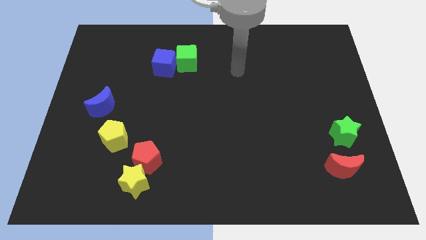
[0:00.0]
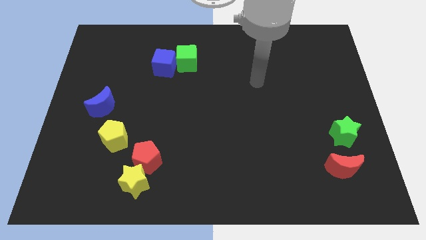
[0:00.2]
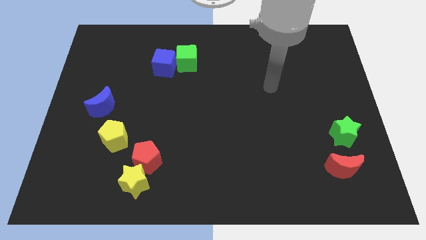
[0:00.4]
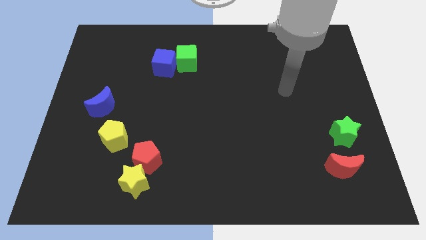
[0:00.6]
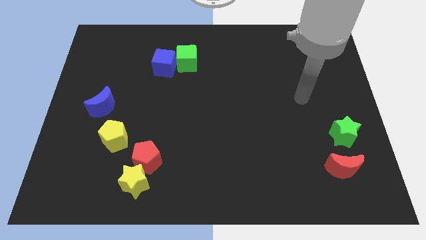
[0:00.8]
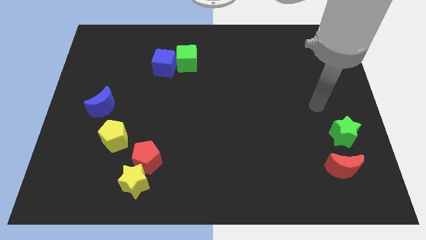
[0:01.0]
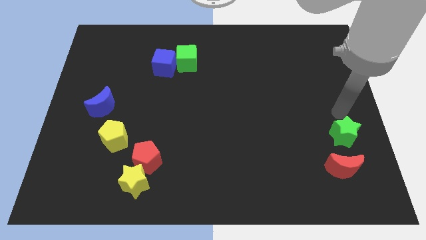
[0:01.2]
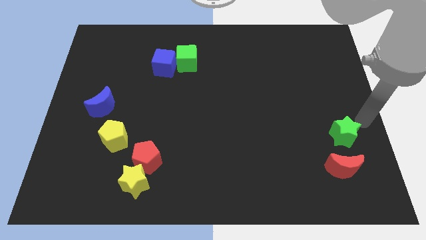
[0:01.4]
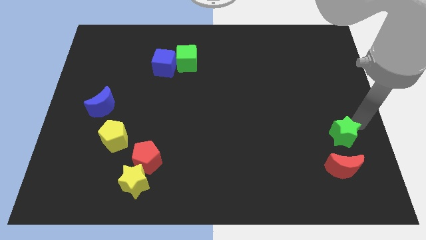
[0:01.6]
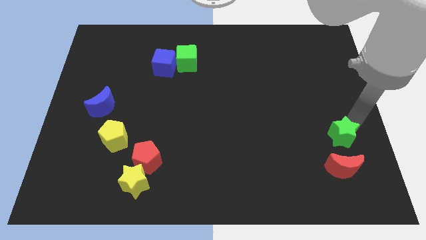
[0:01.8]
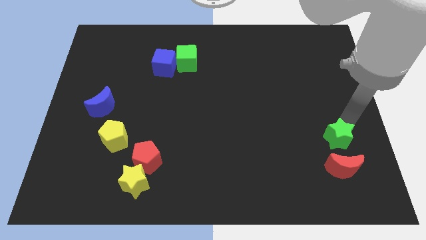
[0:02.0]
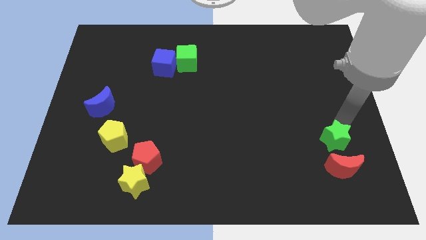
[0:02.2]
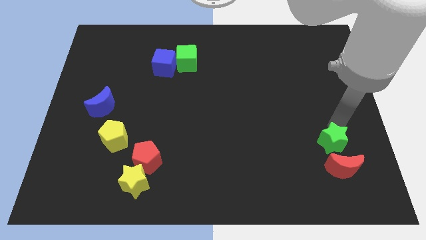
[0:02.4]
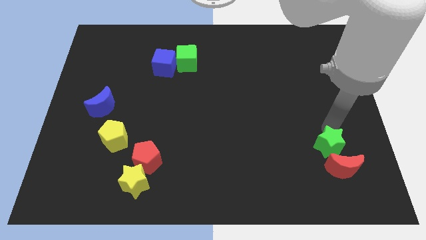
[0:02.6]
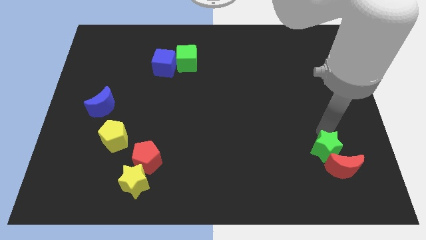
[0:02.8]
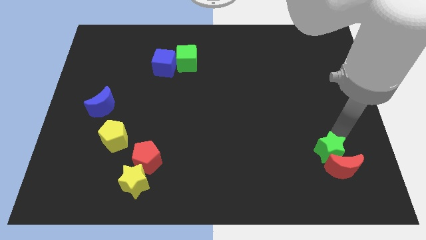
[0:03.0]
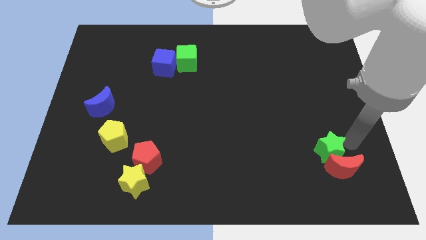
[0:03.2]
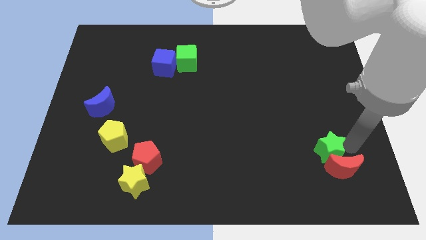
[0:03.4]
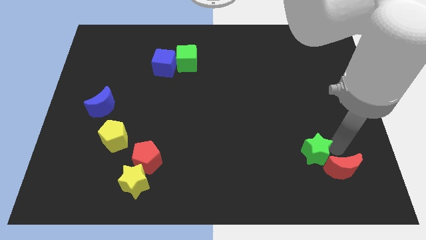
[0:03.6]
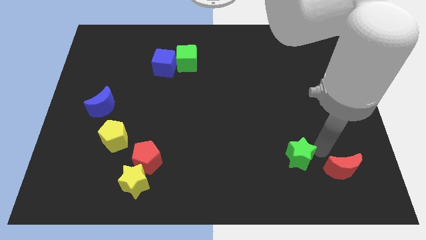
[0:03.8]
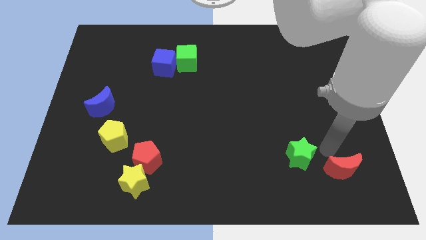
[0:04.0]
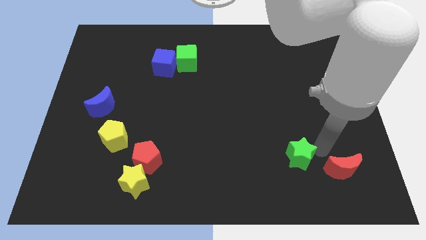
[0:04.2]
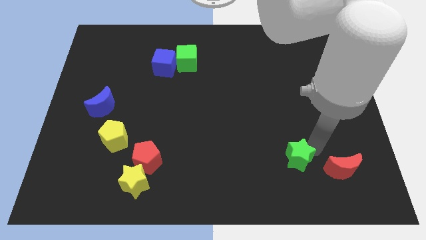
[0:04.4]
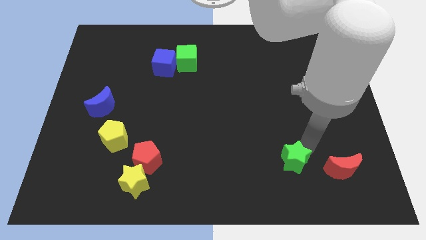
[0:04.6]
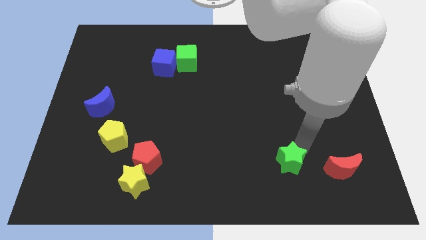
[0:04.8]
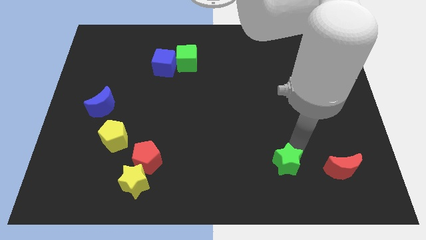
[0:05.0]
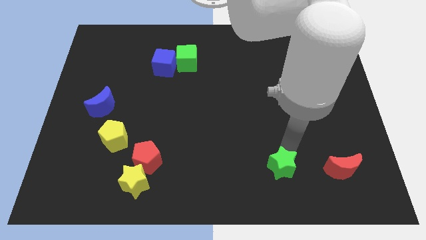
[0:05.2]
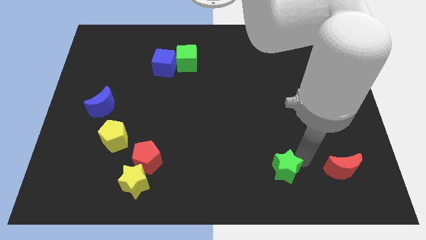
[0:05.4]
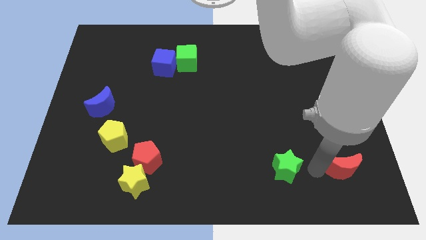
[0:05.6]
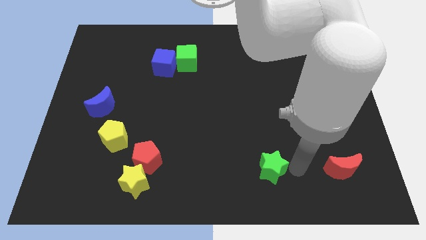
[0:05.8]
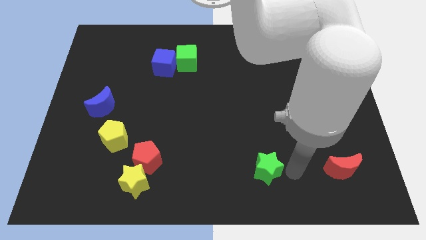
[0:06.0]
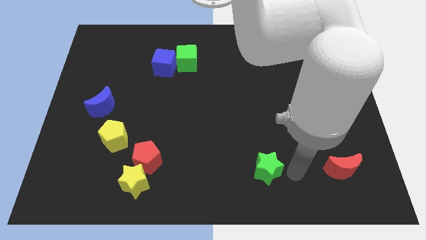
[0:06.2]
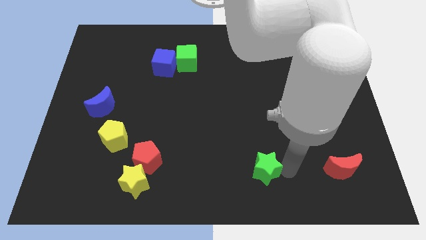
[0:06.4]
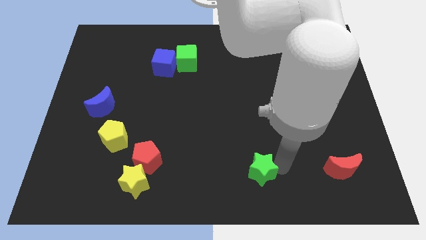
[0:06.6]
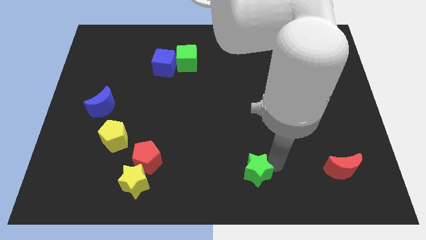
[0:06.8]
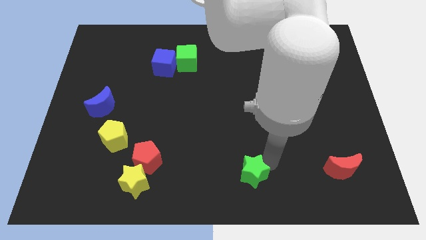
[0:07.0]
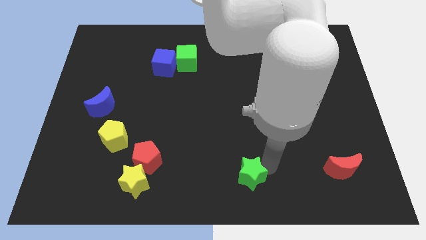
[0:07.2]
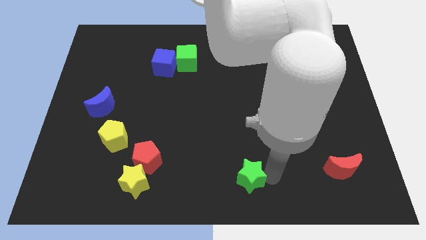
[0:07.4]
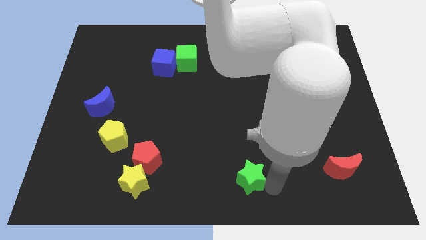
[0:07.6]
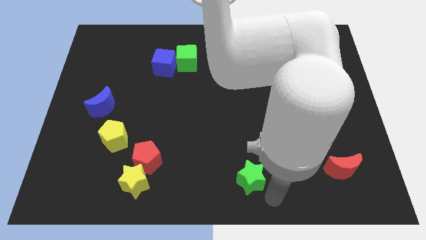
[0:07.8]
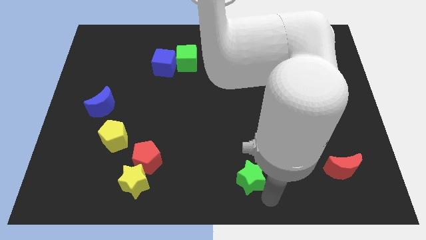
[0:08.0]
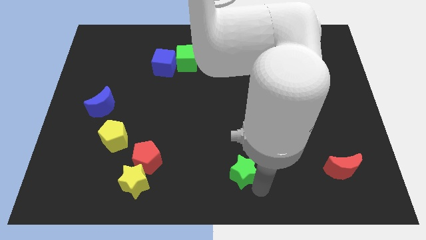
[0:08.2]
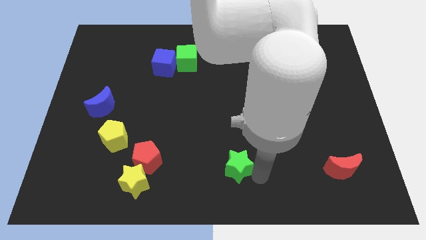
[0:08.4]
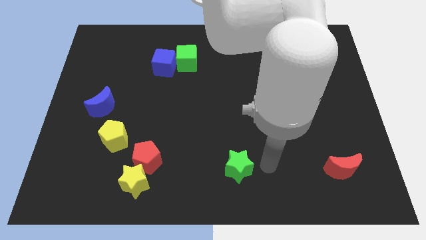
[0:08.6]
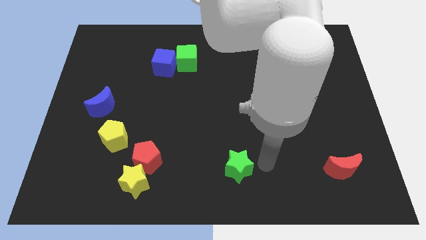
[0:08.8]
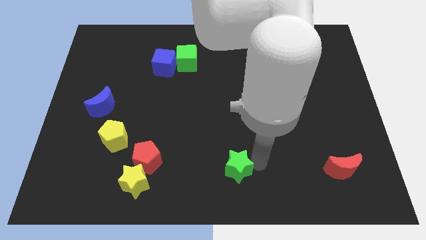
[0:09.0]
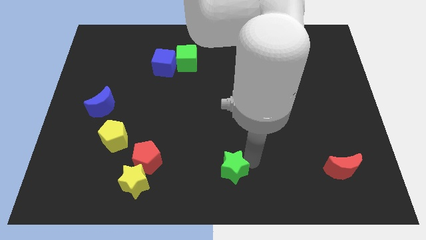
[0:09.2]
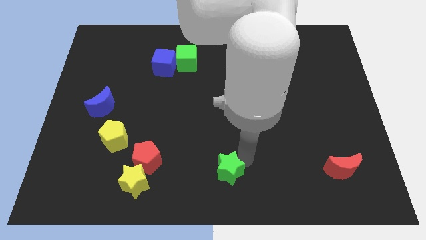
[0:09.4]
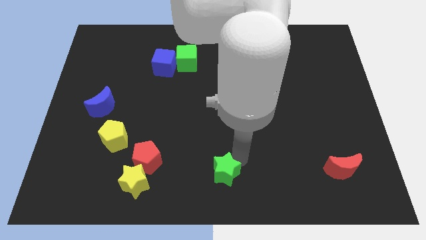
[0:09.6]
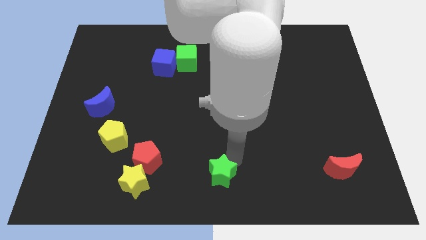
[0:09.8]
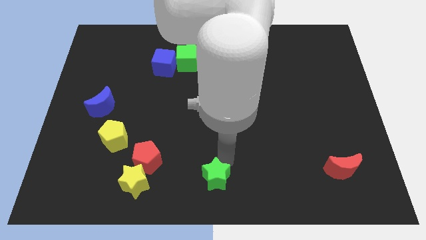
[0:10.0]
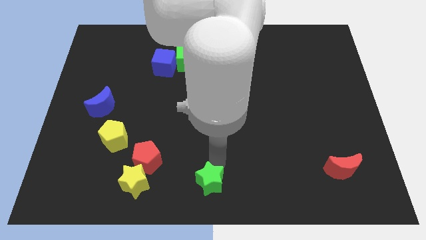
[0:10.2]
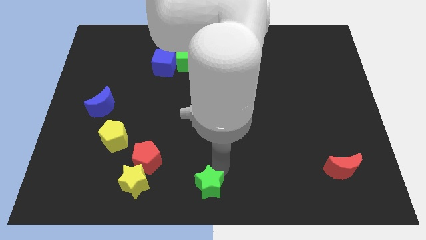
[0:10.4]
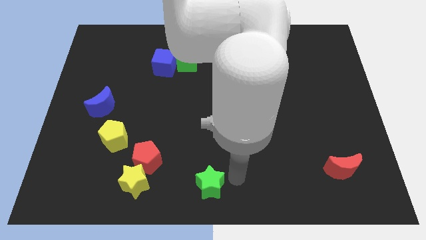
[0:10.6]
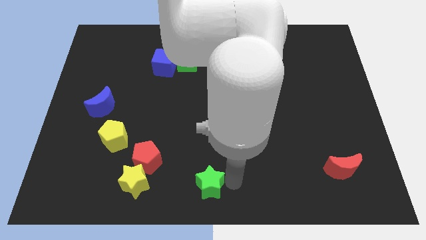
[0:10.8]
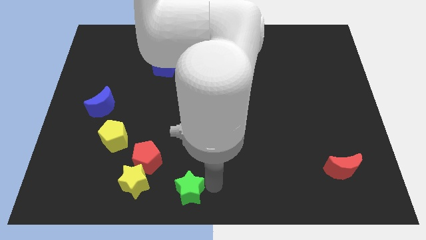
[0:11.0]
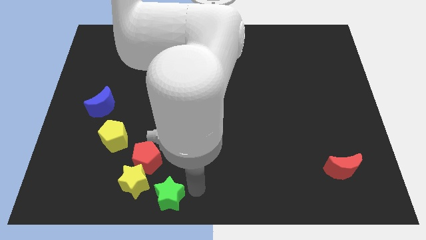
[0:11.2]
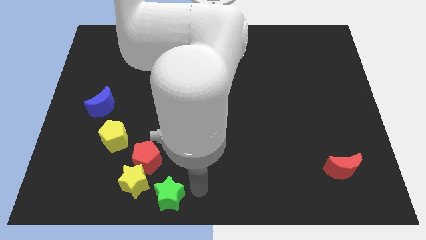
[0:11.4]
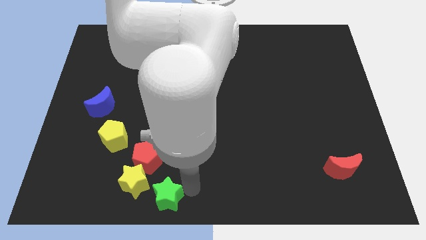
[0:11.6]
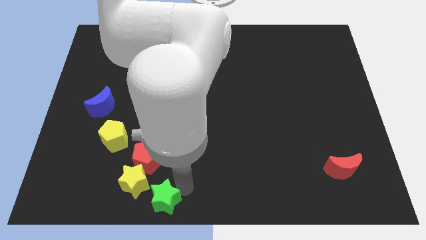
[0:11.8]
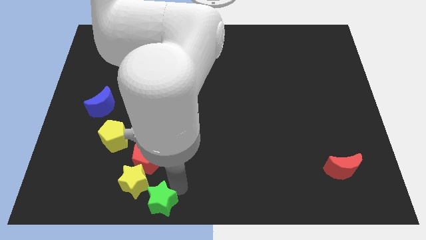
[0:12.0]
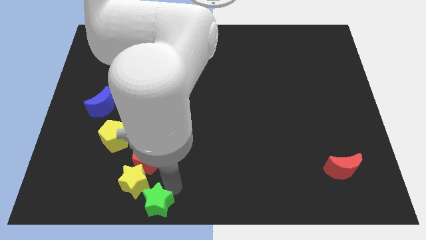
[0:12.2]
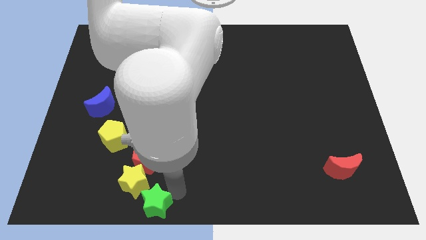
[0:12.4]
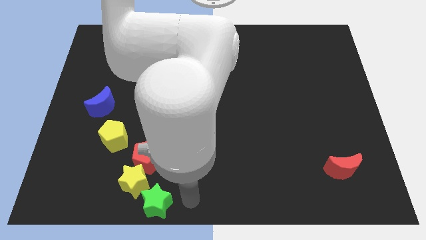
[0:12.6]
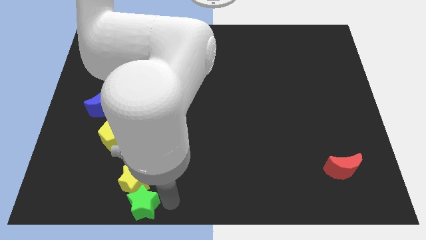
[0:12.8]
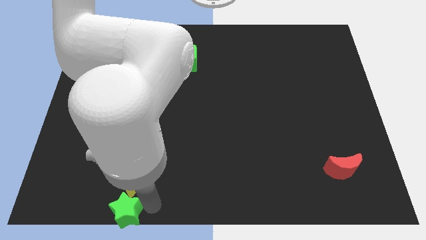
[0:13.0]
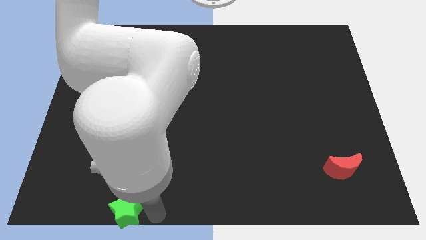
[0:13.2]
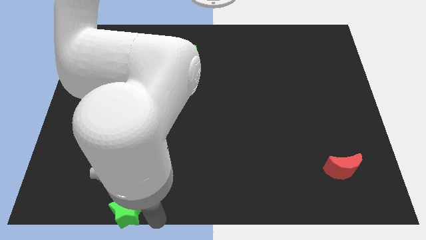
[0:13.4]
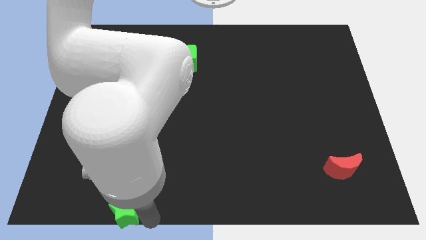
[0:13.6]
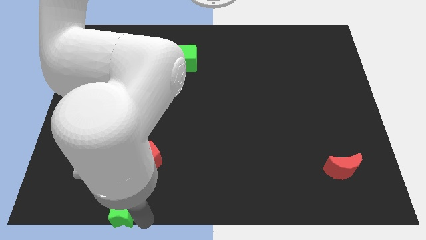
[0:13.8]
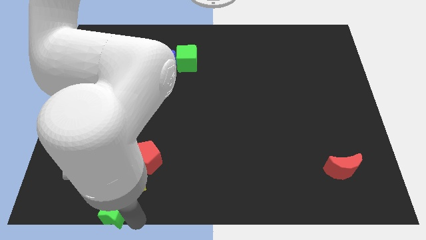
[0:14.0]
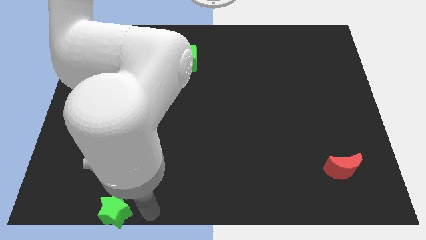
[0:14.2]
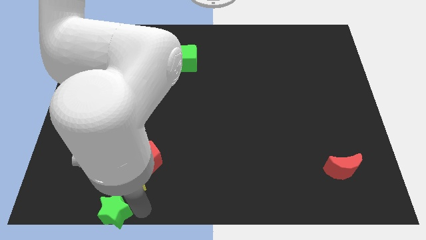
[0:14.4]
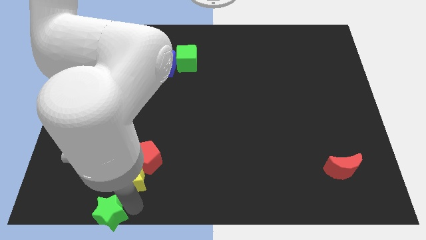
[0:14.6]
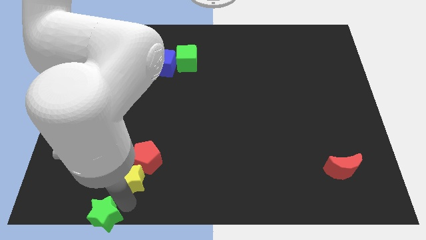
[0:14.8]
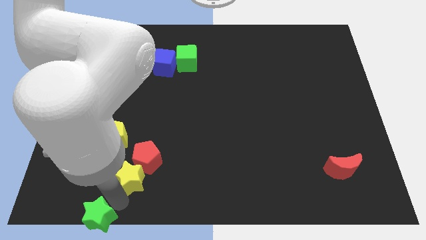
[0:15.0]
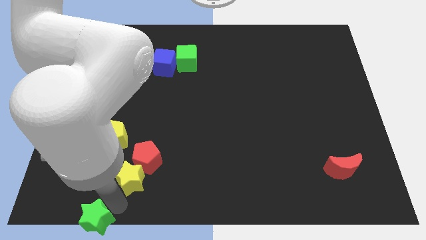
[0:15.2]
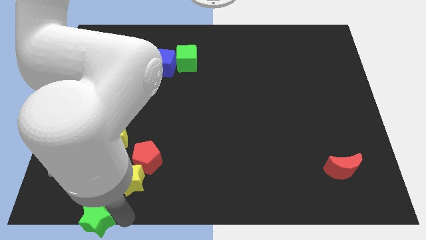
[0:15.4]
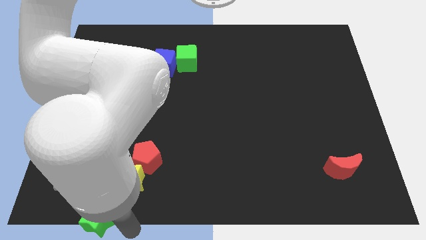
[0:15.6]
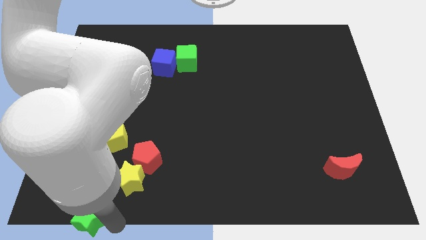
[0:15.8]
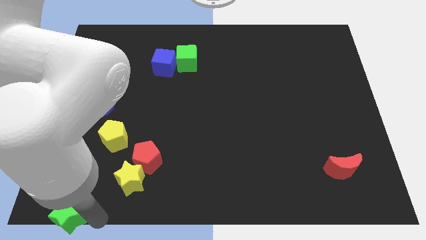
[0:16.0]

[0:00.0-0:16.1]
put the green star to the lower left corner
